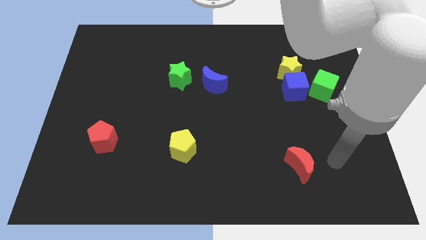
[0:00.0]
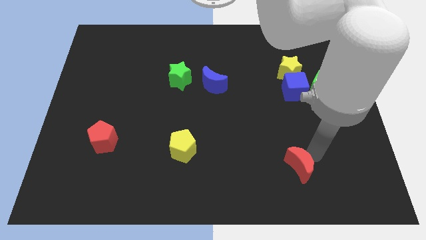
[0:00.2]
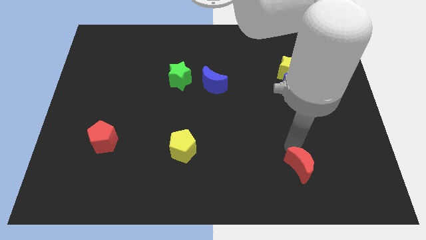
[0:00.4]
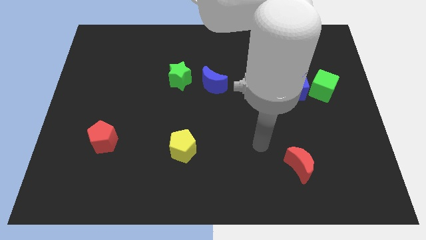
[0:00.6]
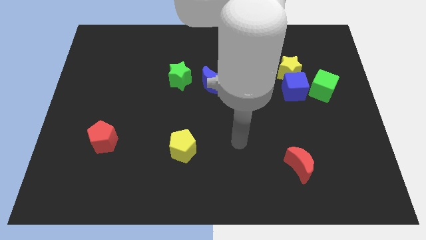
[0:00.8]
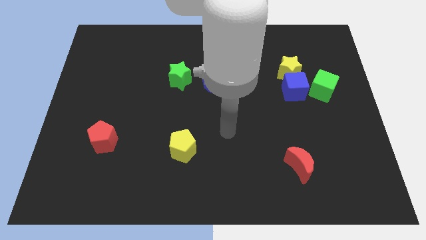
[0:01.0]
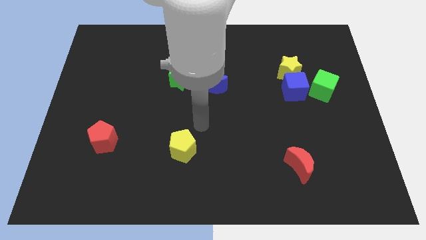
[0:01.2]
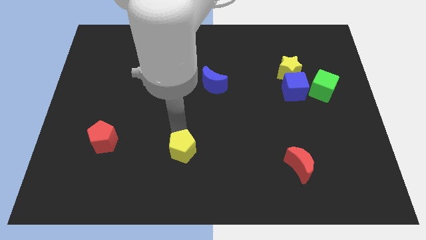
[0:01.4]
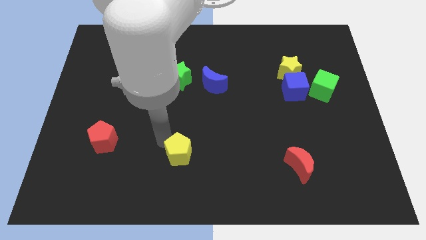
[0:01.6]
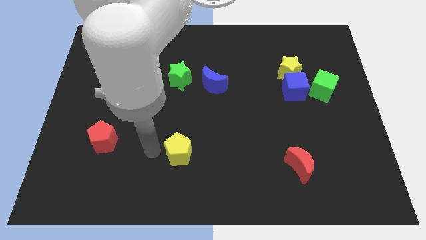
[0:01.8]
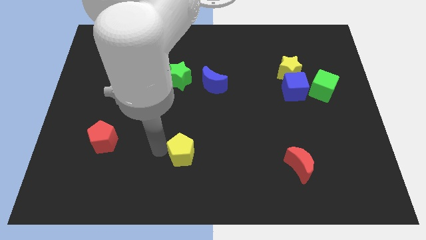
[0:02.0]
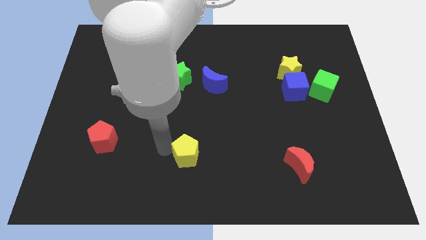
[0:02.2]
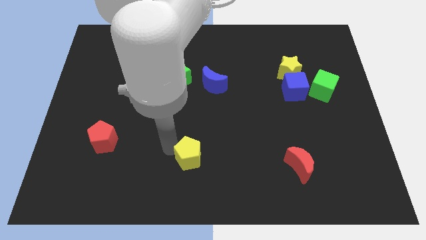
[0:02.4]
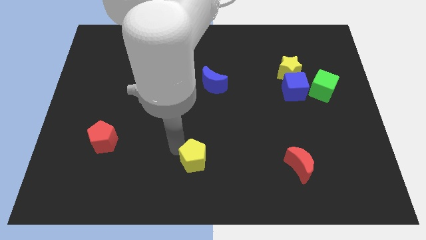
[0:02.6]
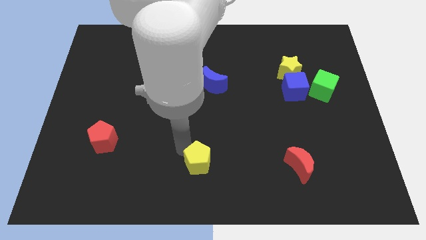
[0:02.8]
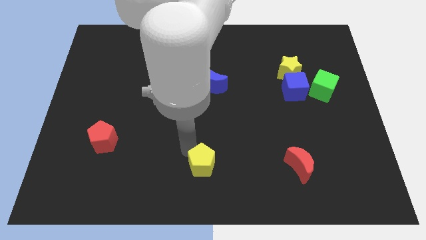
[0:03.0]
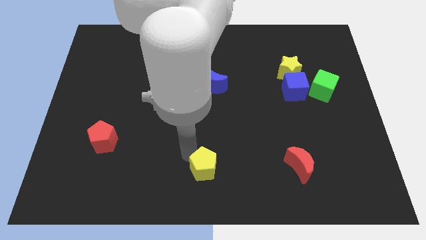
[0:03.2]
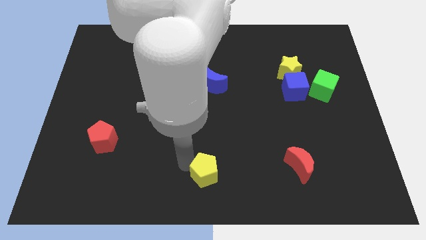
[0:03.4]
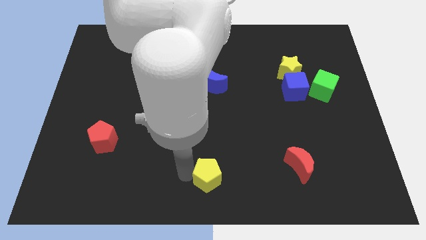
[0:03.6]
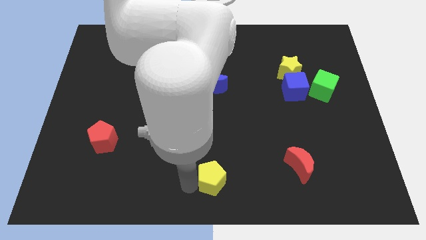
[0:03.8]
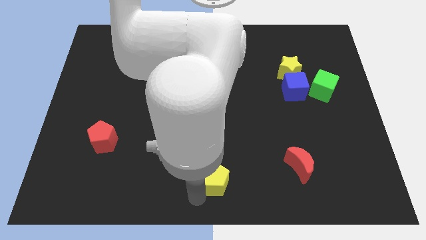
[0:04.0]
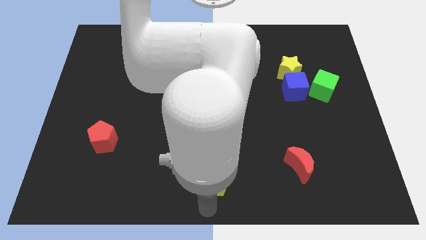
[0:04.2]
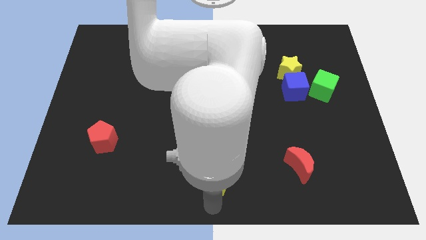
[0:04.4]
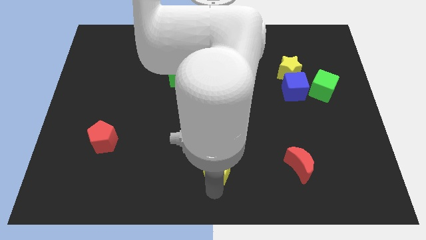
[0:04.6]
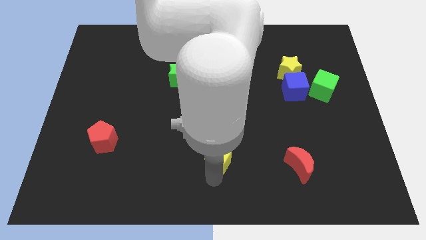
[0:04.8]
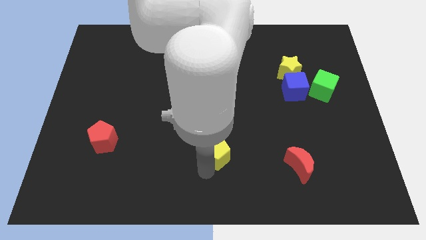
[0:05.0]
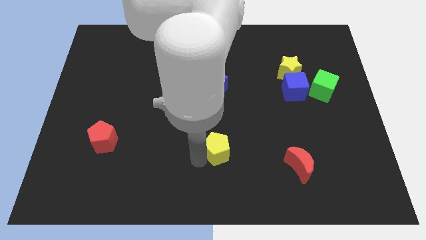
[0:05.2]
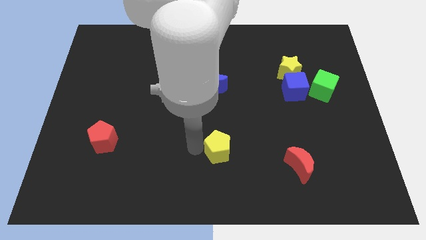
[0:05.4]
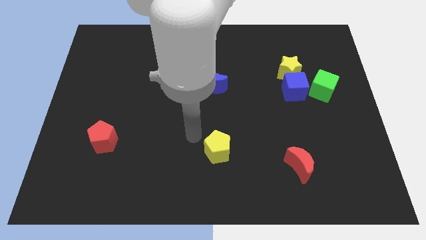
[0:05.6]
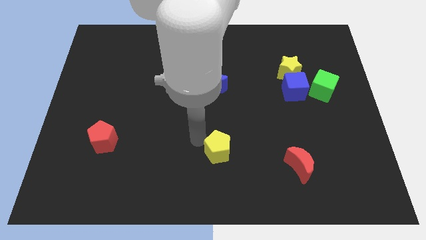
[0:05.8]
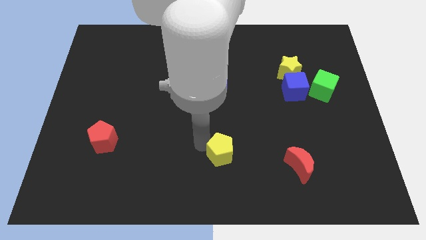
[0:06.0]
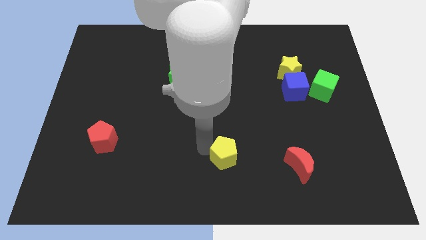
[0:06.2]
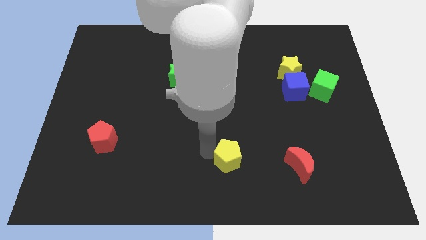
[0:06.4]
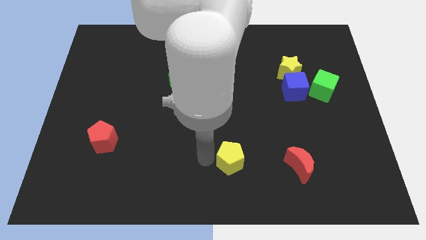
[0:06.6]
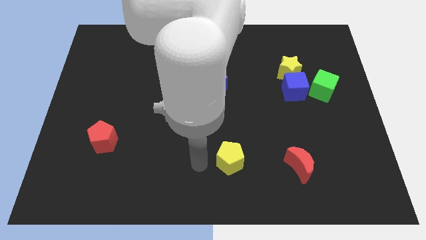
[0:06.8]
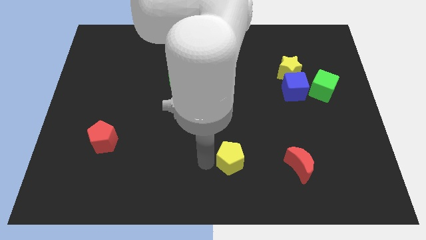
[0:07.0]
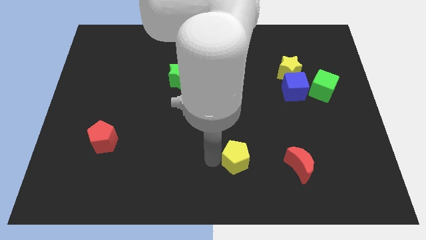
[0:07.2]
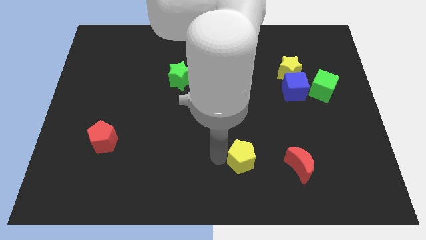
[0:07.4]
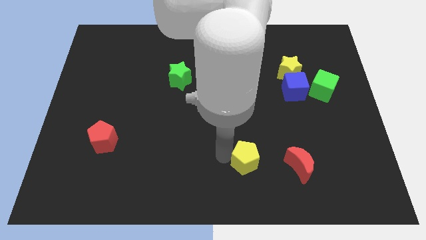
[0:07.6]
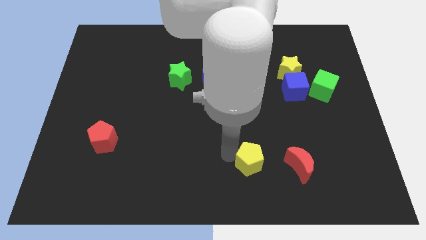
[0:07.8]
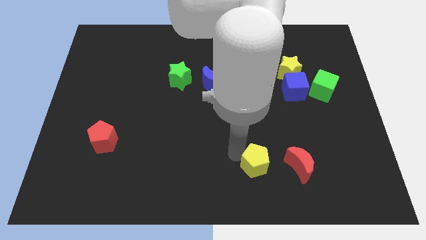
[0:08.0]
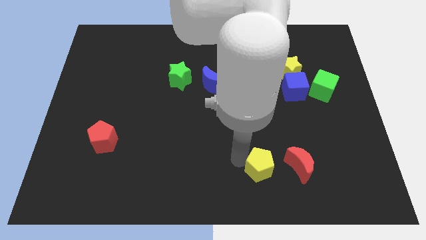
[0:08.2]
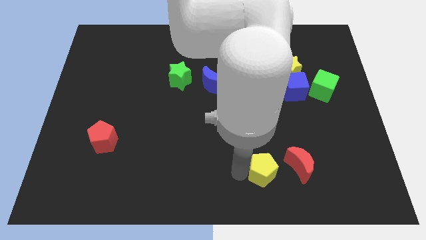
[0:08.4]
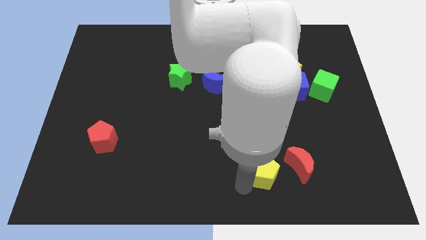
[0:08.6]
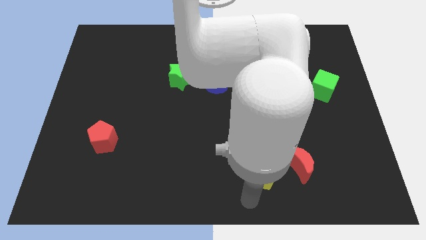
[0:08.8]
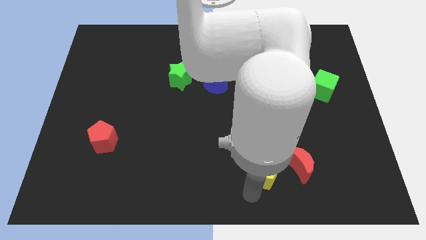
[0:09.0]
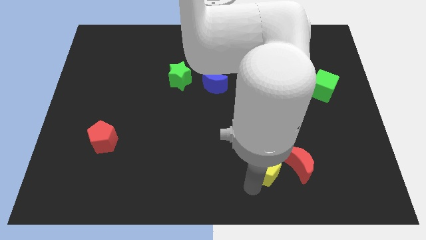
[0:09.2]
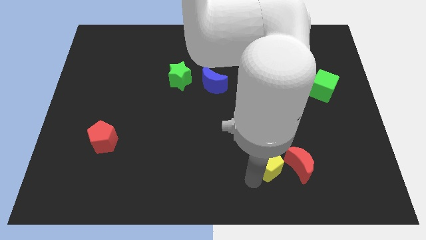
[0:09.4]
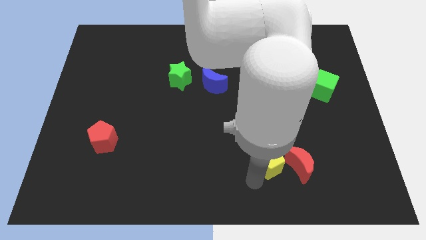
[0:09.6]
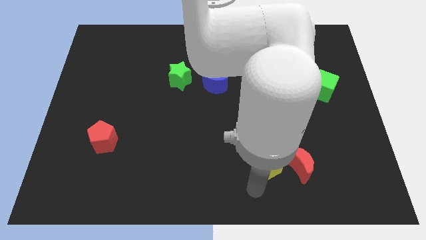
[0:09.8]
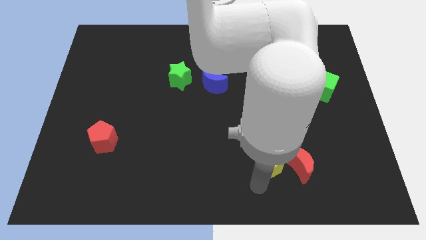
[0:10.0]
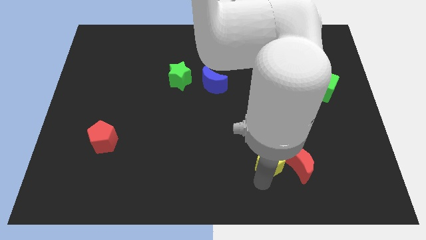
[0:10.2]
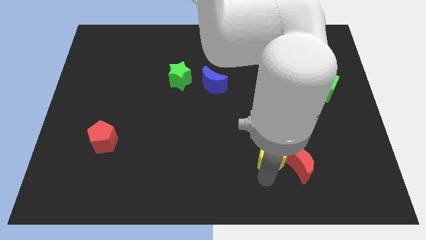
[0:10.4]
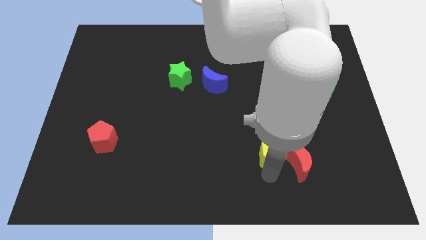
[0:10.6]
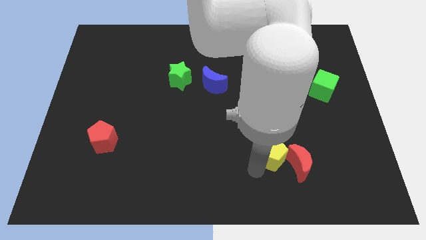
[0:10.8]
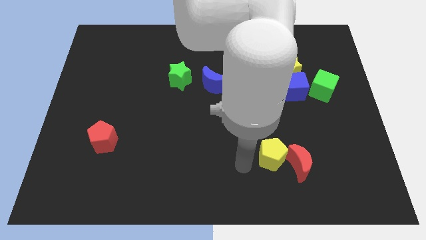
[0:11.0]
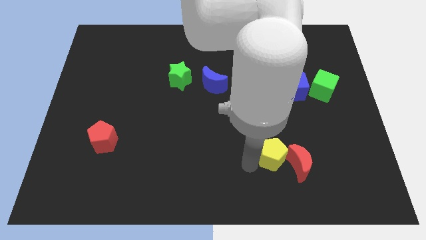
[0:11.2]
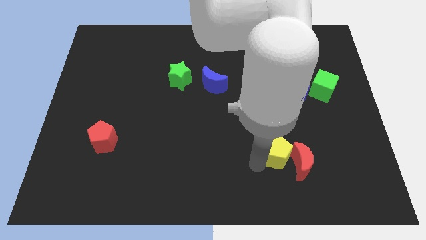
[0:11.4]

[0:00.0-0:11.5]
slide the yellow pentagon right

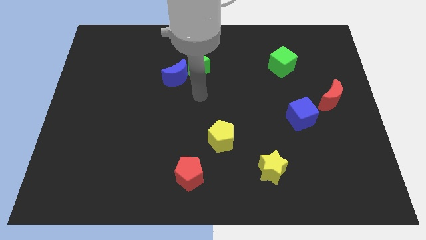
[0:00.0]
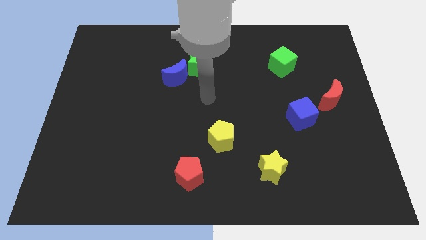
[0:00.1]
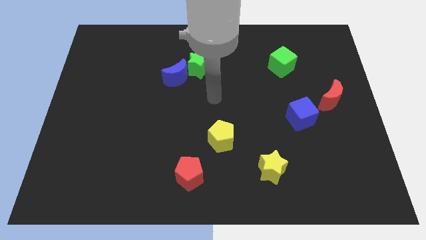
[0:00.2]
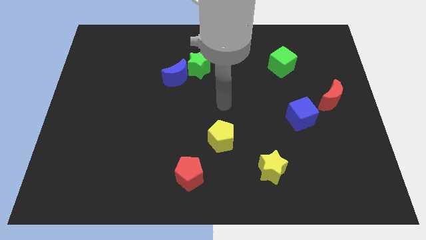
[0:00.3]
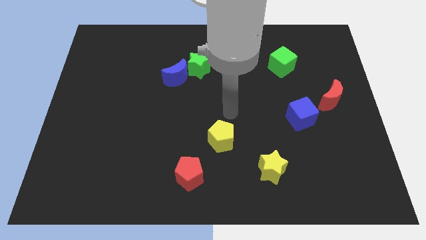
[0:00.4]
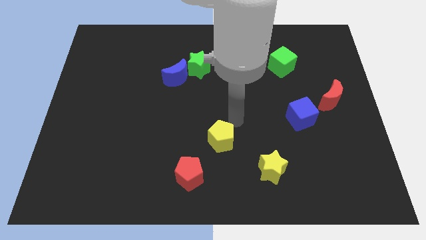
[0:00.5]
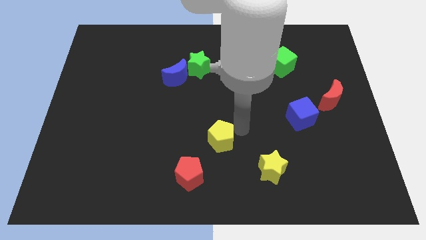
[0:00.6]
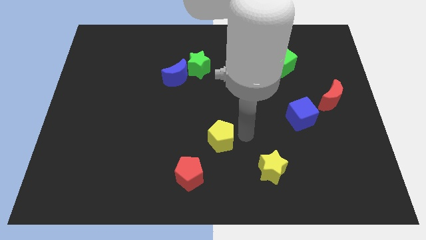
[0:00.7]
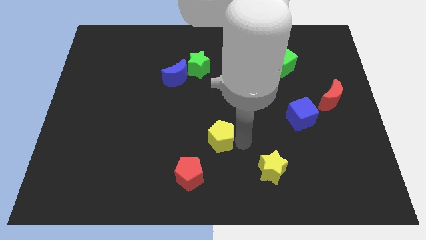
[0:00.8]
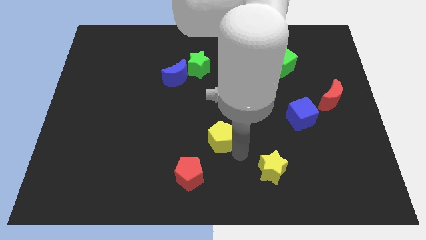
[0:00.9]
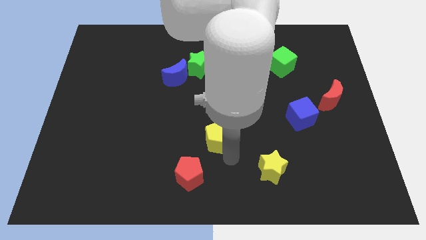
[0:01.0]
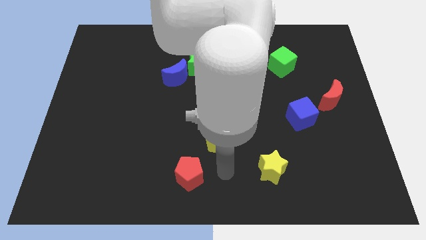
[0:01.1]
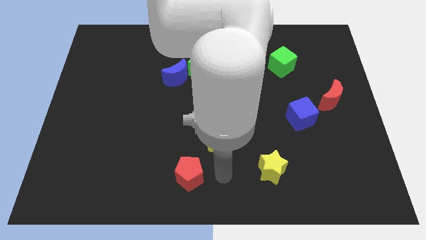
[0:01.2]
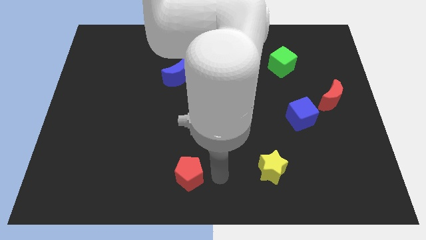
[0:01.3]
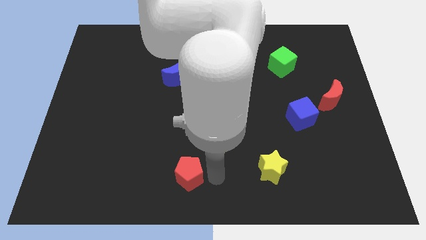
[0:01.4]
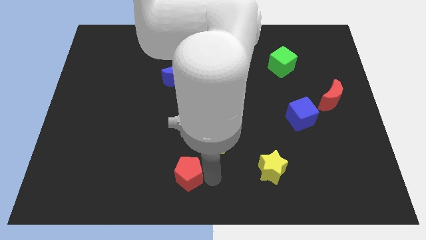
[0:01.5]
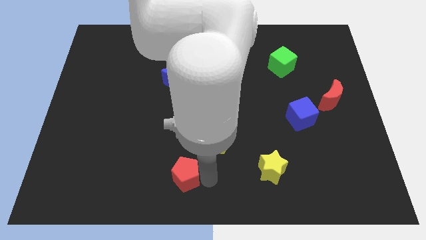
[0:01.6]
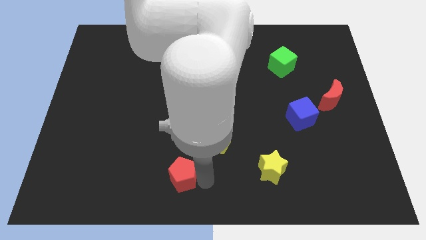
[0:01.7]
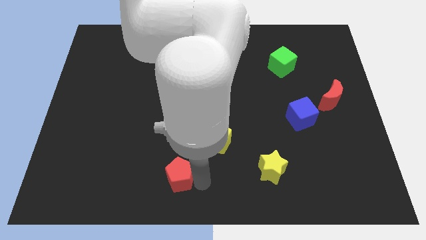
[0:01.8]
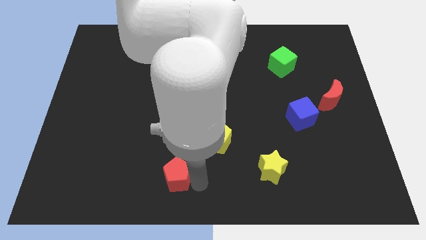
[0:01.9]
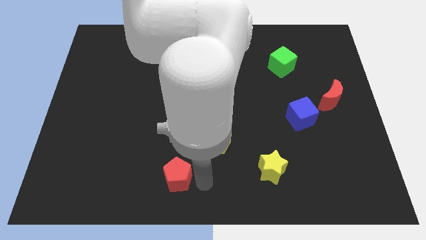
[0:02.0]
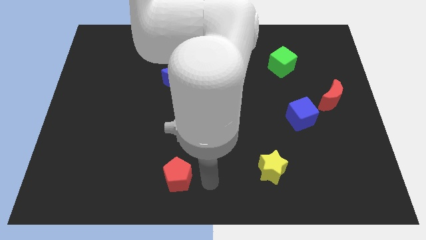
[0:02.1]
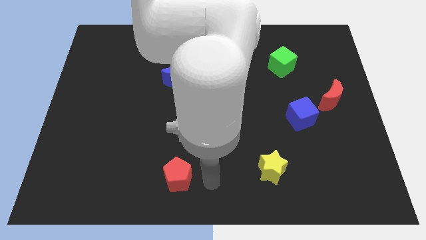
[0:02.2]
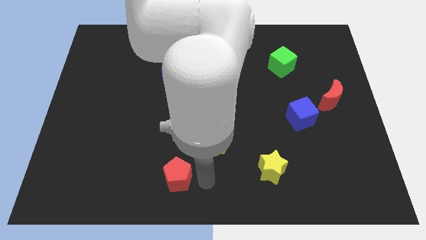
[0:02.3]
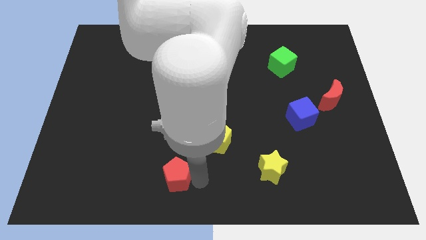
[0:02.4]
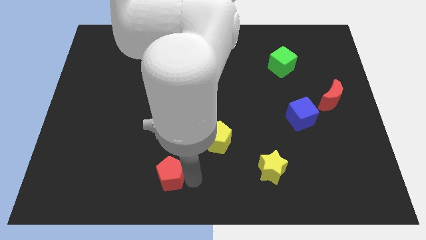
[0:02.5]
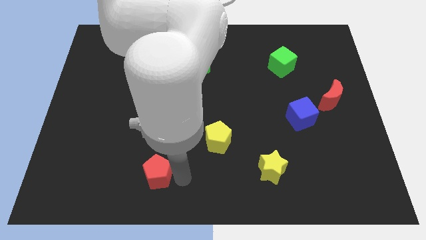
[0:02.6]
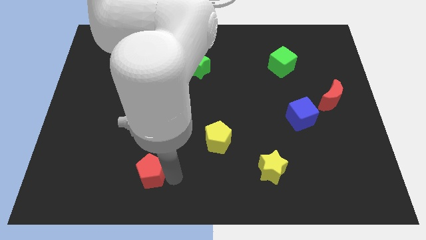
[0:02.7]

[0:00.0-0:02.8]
move the red pentagon a little left
